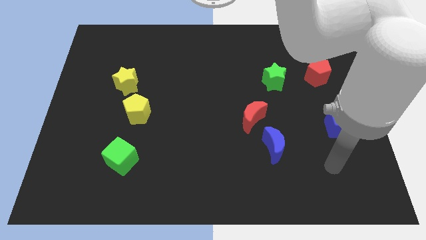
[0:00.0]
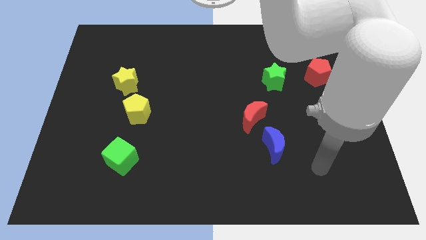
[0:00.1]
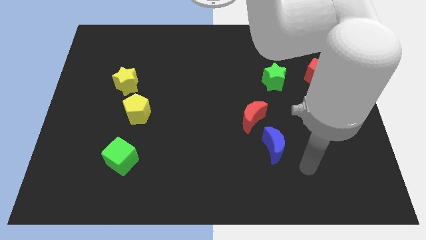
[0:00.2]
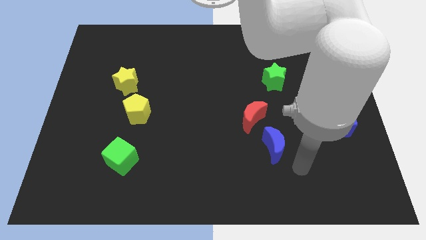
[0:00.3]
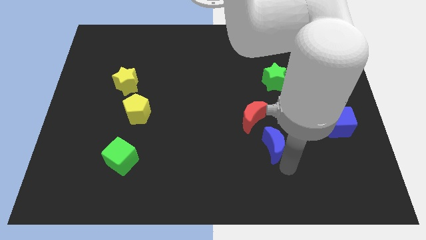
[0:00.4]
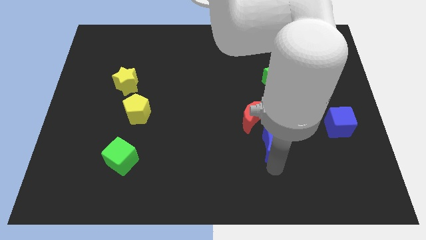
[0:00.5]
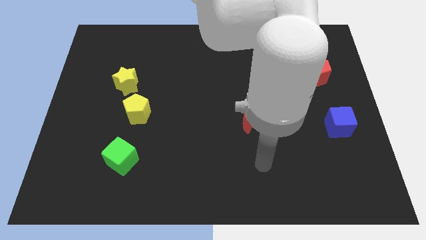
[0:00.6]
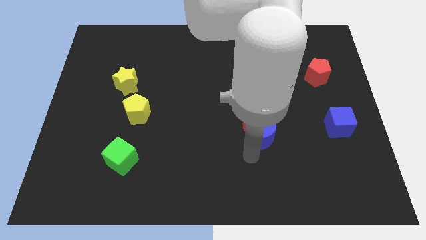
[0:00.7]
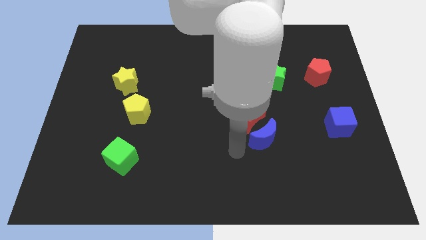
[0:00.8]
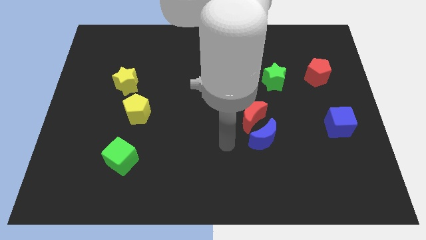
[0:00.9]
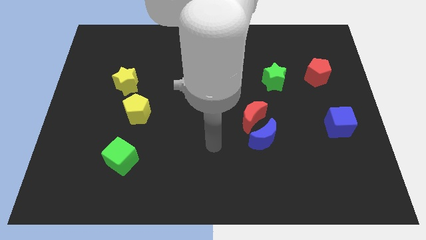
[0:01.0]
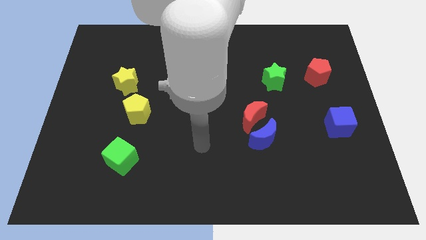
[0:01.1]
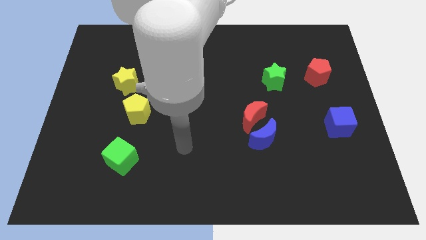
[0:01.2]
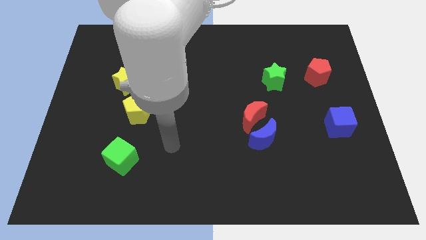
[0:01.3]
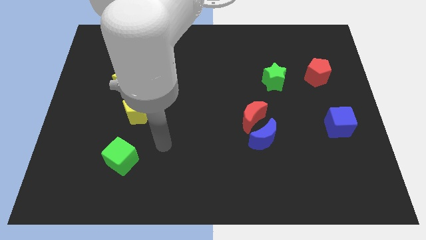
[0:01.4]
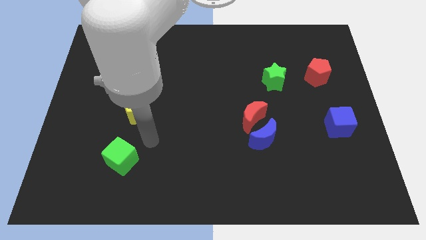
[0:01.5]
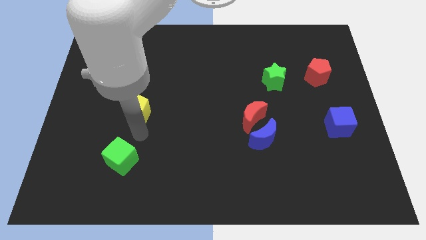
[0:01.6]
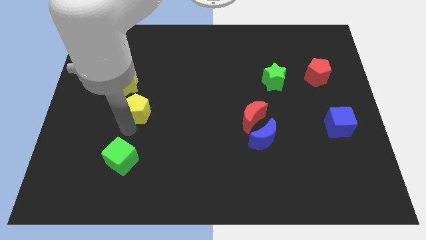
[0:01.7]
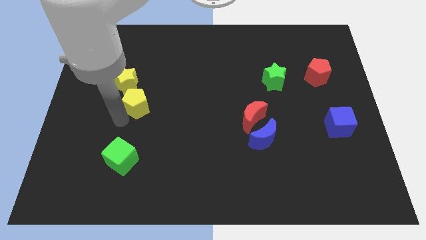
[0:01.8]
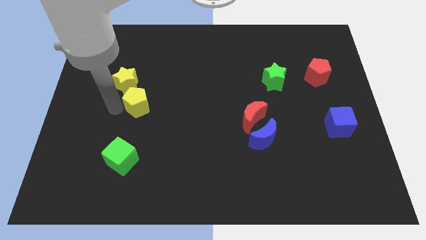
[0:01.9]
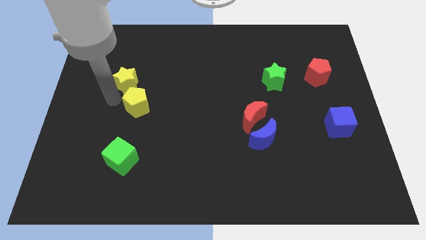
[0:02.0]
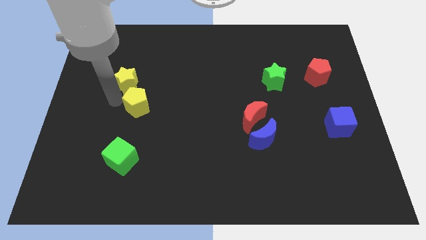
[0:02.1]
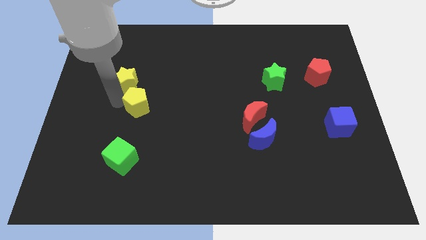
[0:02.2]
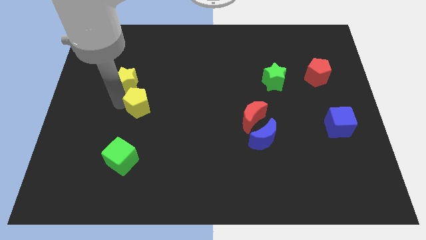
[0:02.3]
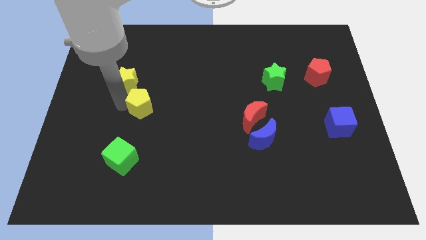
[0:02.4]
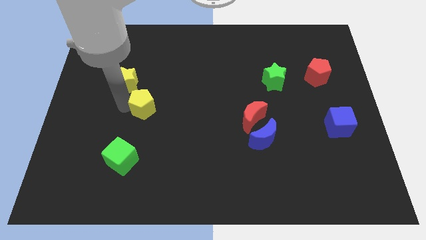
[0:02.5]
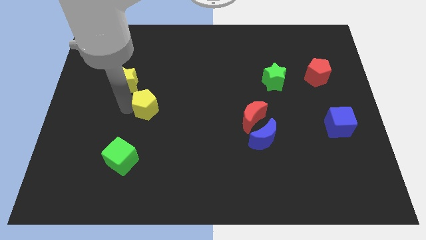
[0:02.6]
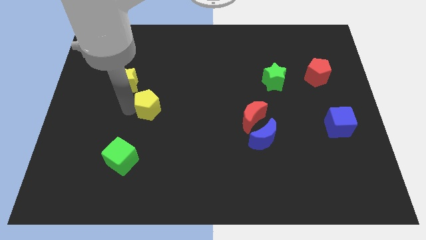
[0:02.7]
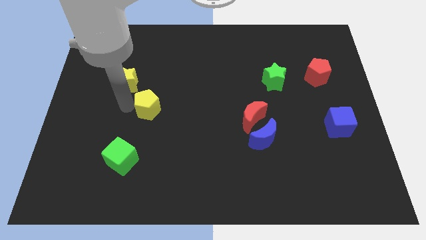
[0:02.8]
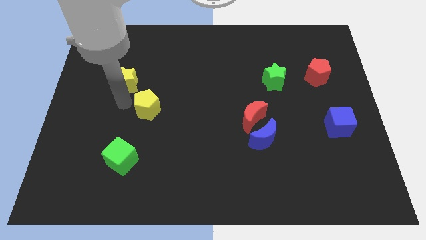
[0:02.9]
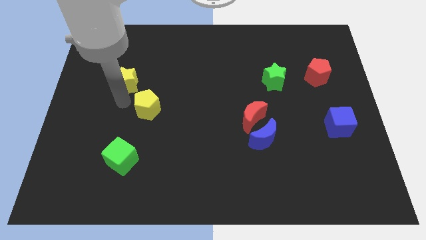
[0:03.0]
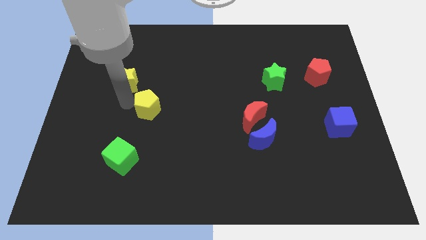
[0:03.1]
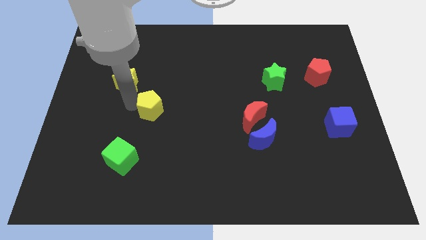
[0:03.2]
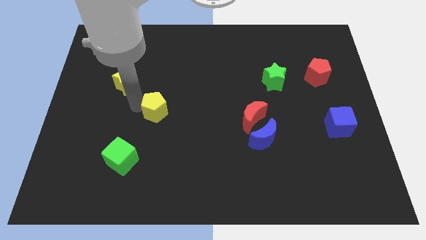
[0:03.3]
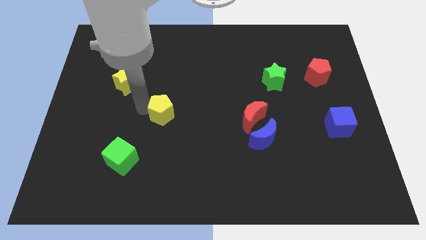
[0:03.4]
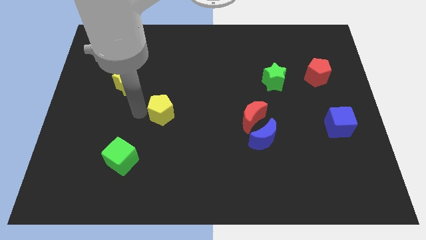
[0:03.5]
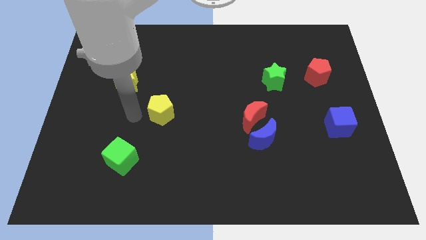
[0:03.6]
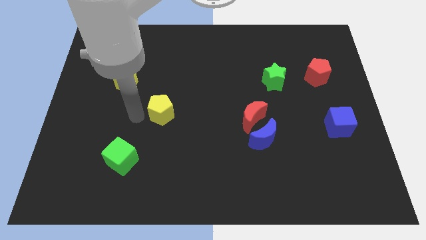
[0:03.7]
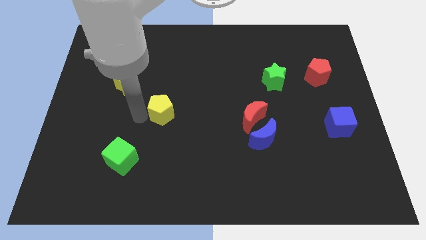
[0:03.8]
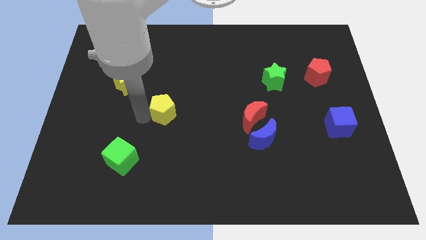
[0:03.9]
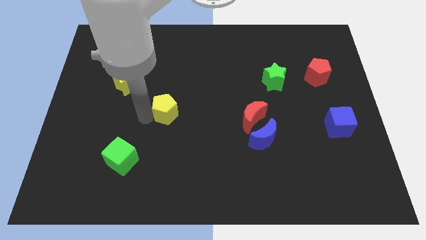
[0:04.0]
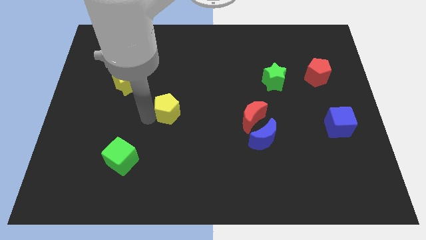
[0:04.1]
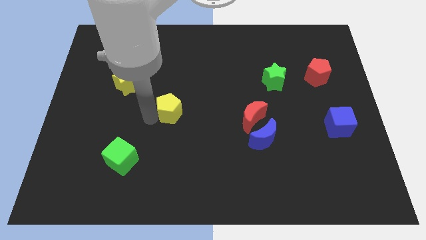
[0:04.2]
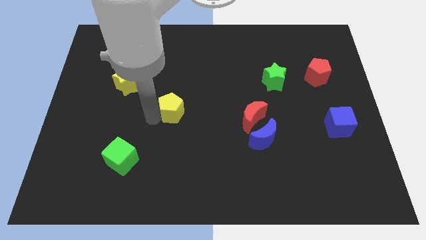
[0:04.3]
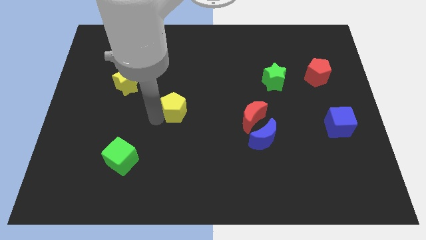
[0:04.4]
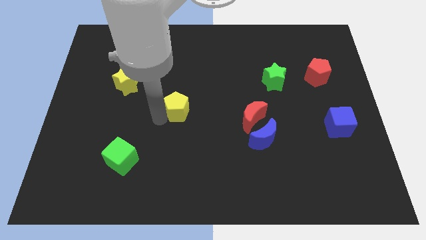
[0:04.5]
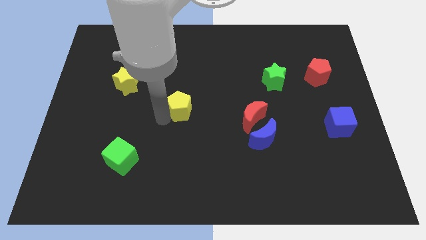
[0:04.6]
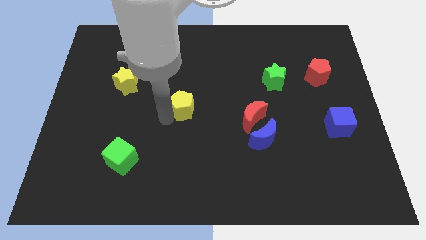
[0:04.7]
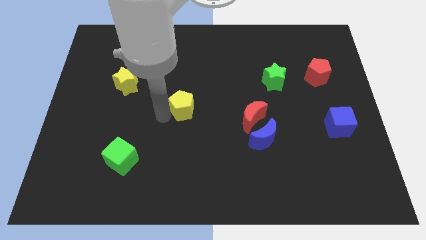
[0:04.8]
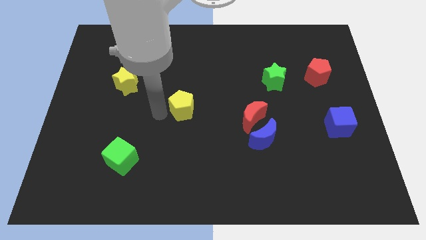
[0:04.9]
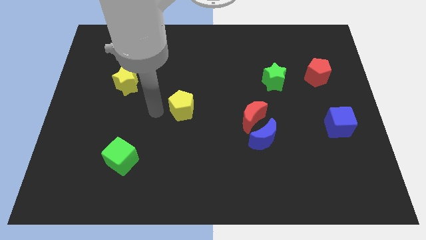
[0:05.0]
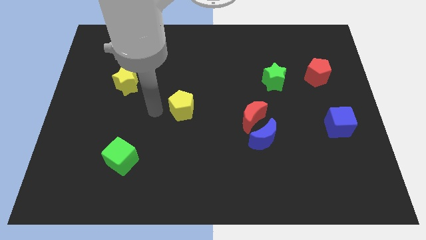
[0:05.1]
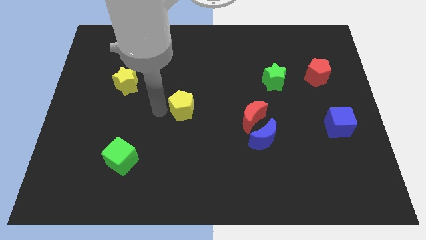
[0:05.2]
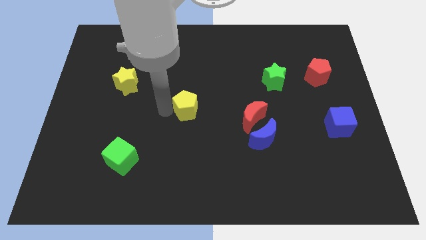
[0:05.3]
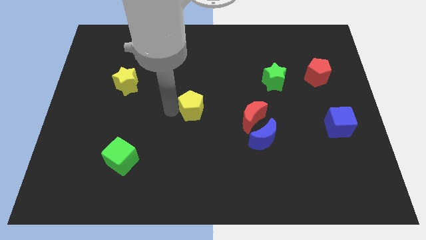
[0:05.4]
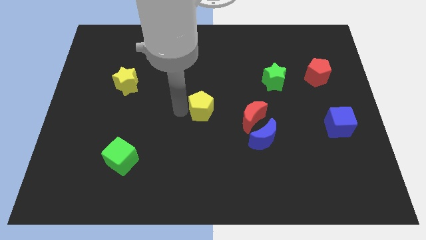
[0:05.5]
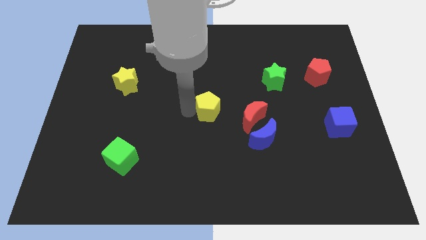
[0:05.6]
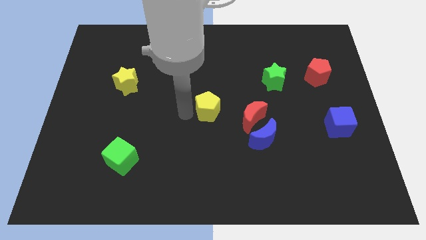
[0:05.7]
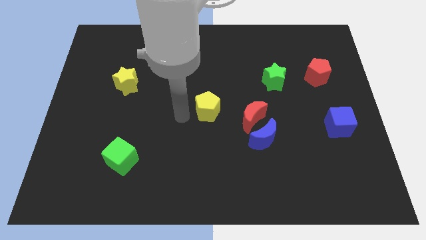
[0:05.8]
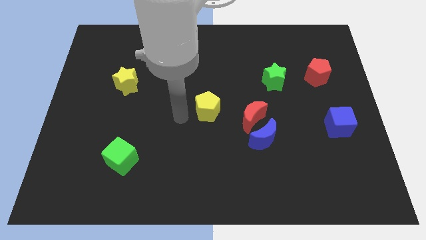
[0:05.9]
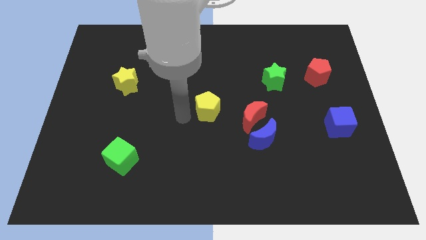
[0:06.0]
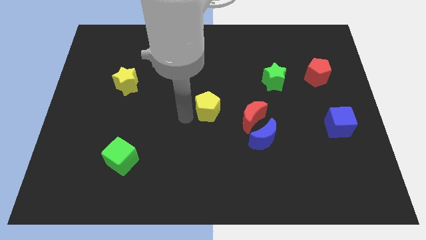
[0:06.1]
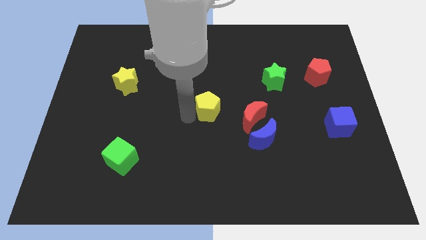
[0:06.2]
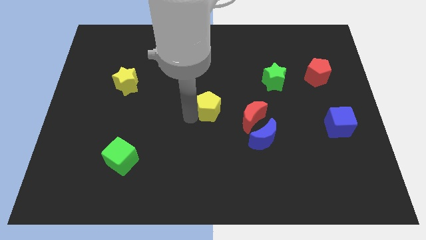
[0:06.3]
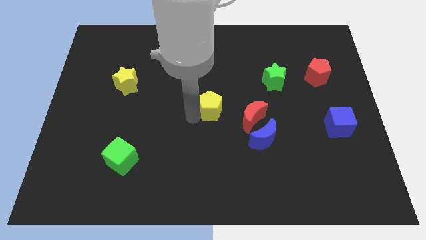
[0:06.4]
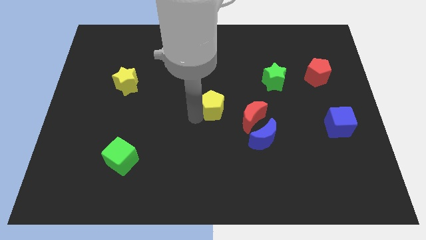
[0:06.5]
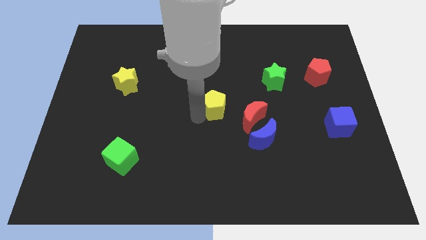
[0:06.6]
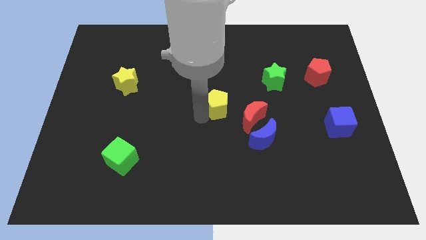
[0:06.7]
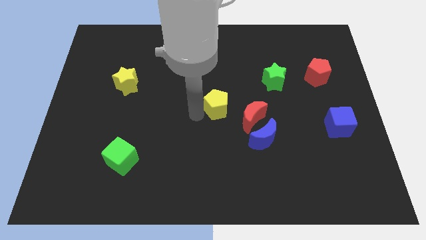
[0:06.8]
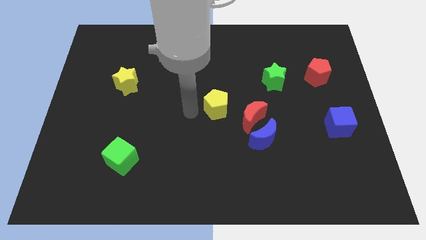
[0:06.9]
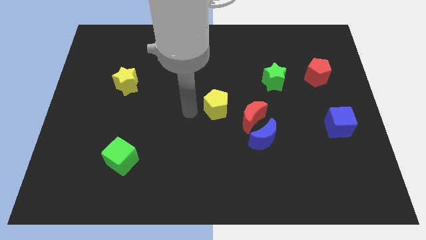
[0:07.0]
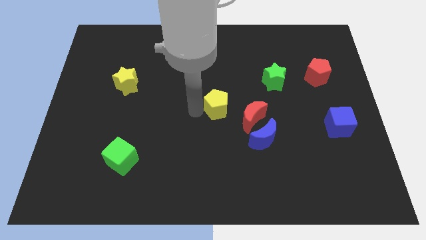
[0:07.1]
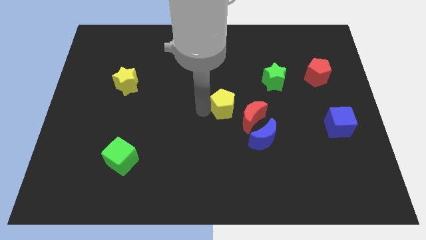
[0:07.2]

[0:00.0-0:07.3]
slide the yellow pentagon right

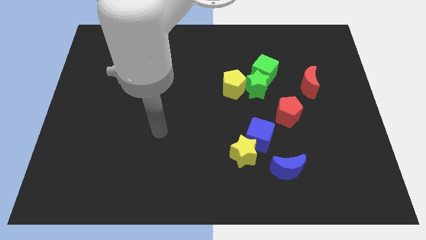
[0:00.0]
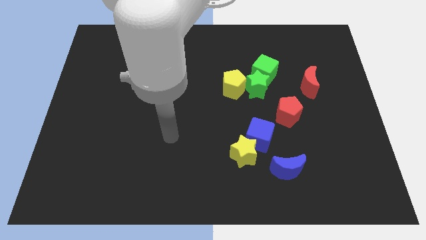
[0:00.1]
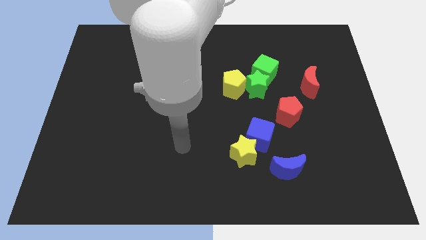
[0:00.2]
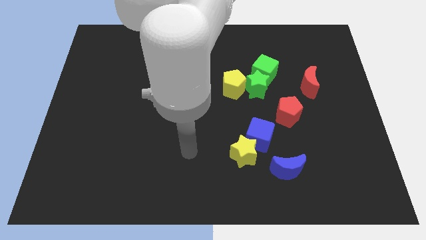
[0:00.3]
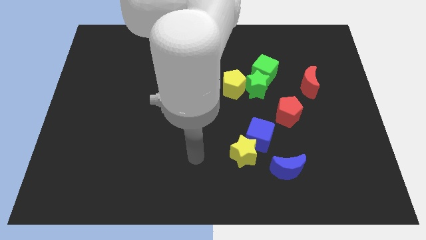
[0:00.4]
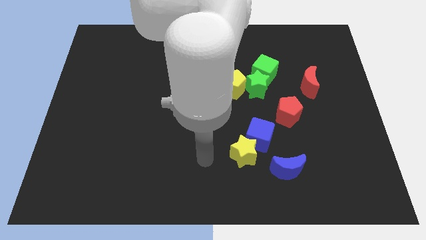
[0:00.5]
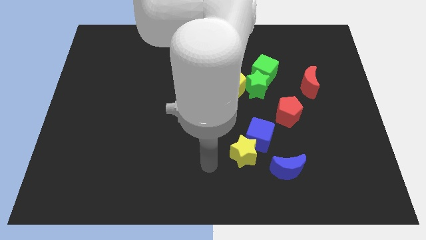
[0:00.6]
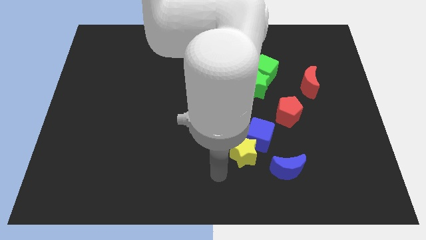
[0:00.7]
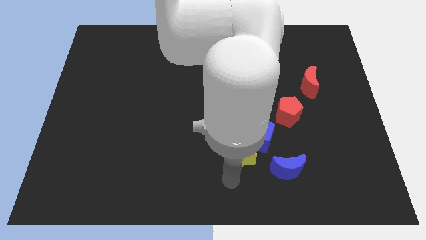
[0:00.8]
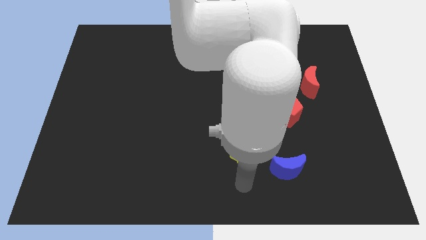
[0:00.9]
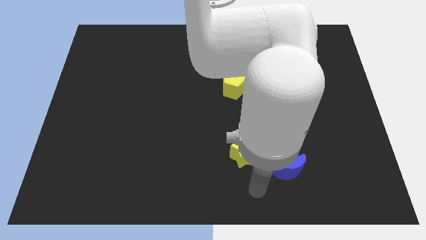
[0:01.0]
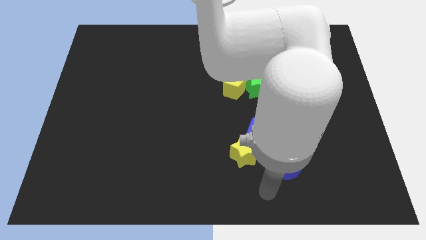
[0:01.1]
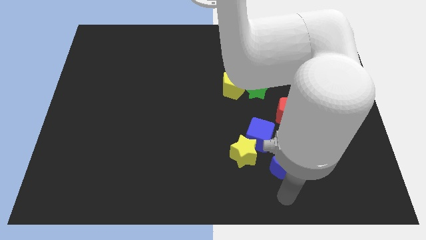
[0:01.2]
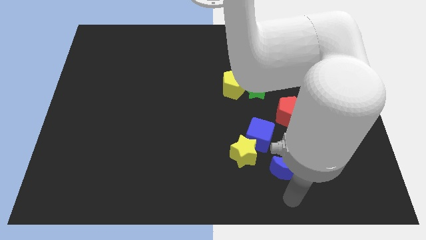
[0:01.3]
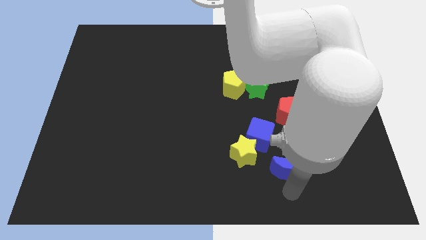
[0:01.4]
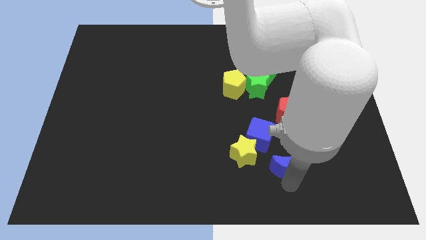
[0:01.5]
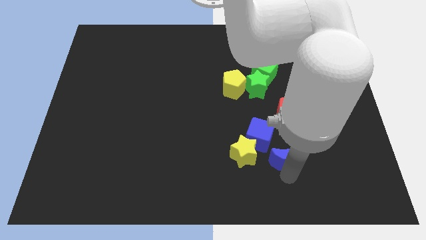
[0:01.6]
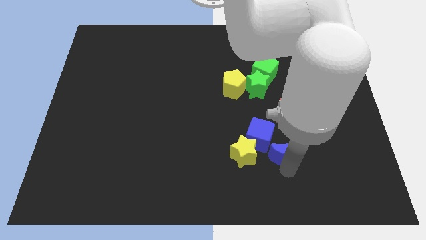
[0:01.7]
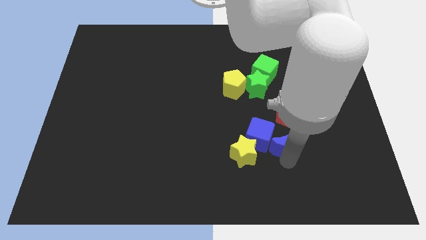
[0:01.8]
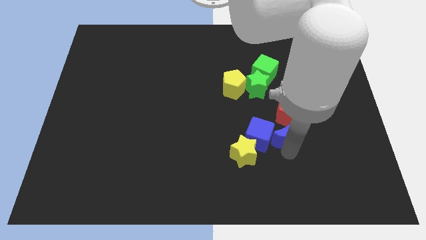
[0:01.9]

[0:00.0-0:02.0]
push the blue moon up somewhat
